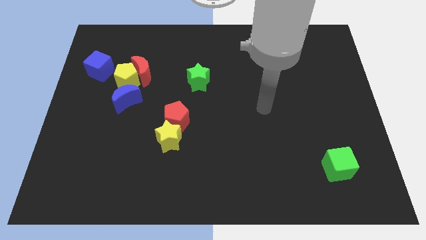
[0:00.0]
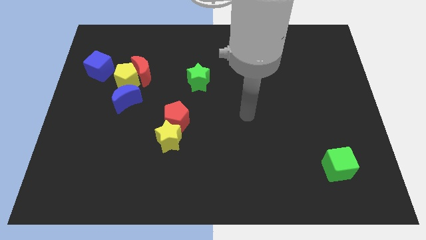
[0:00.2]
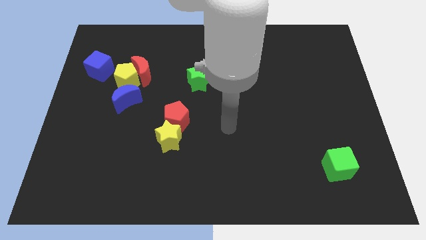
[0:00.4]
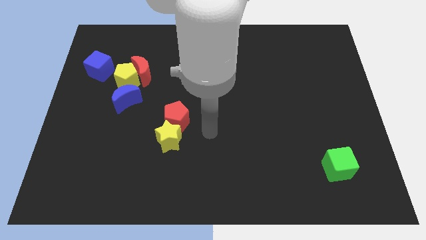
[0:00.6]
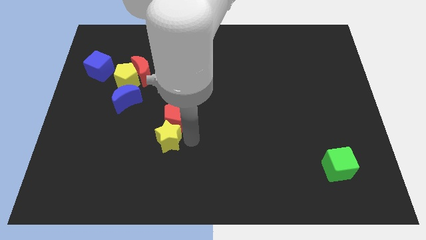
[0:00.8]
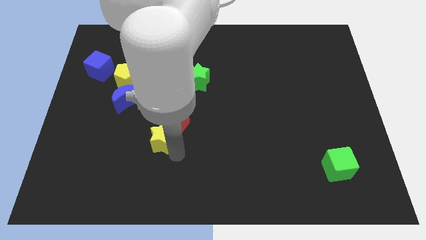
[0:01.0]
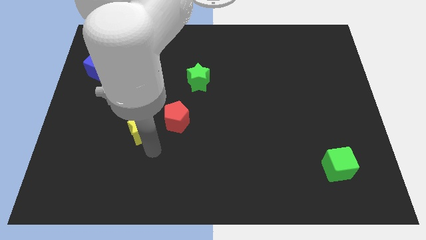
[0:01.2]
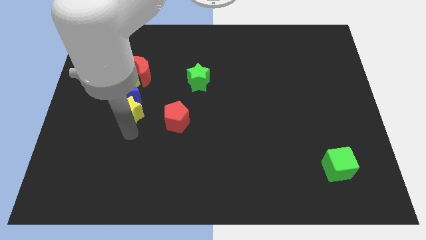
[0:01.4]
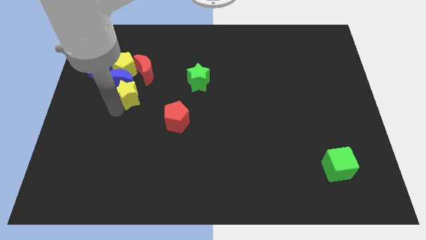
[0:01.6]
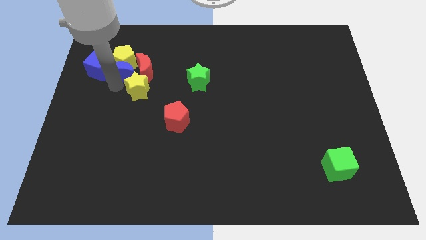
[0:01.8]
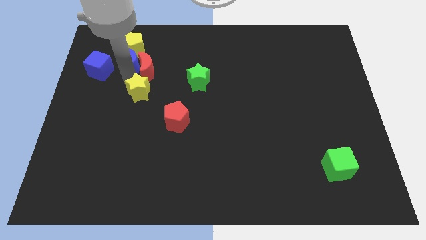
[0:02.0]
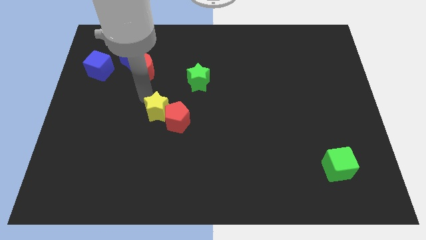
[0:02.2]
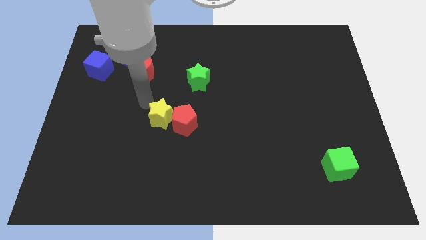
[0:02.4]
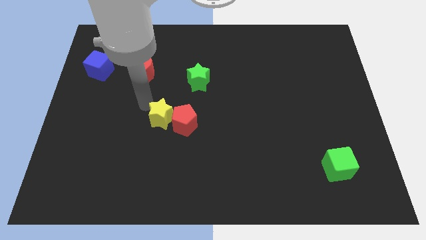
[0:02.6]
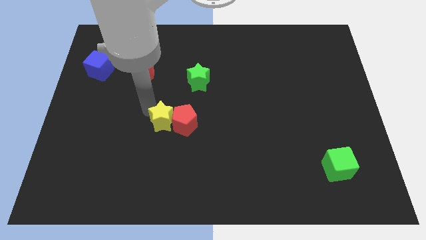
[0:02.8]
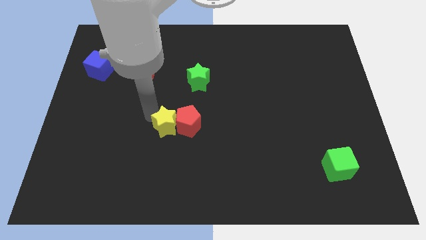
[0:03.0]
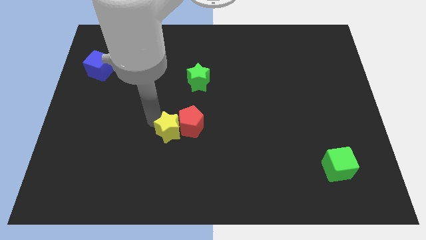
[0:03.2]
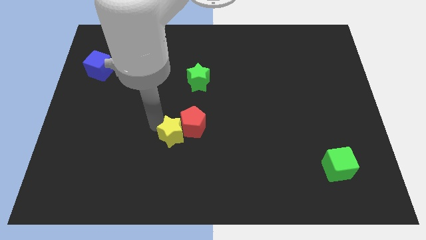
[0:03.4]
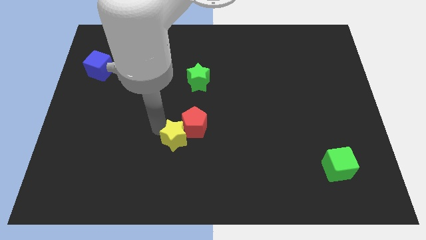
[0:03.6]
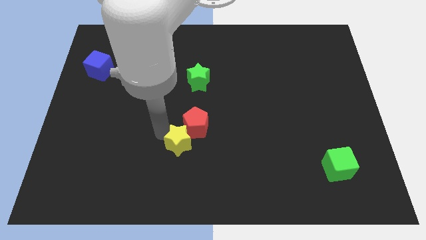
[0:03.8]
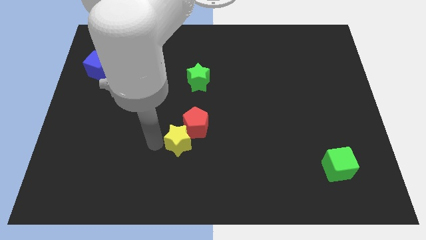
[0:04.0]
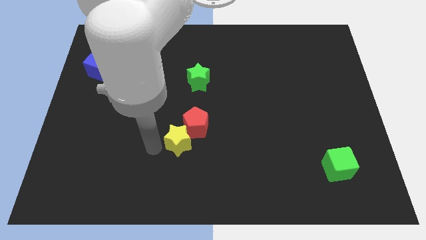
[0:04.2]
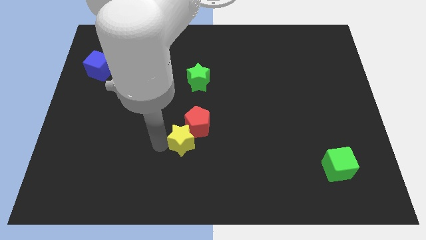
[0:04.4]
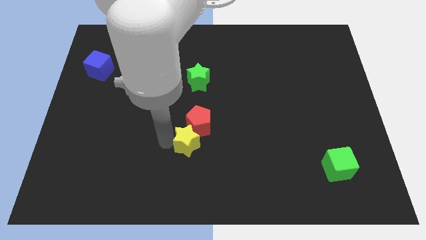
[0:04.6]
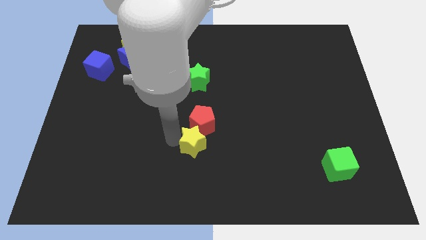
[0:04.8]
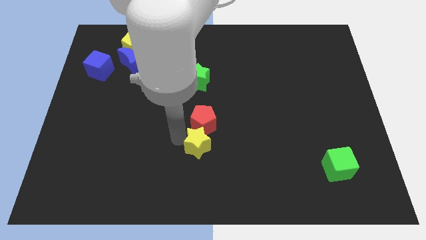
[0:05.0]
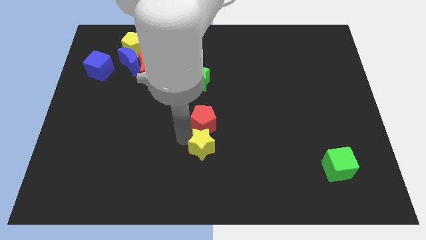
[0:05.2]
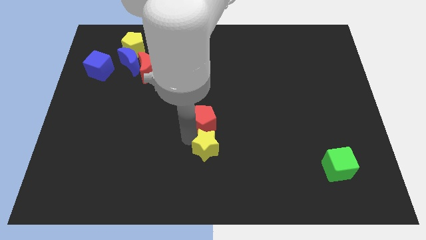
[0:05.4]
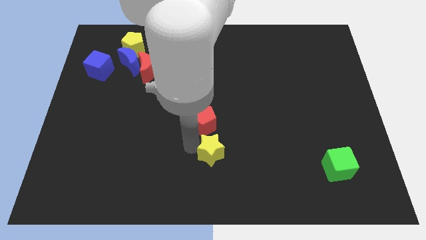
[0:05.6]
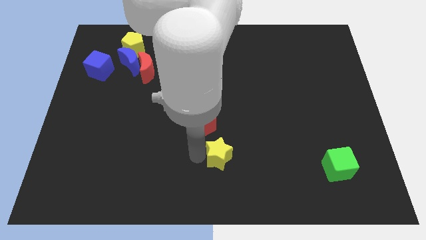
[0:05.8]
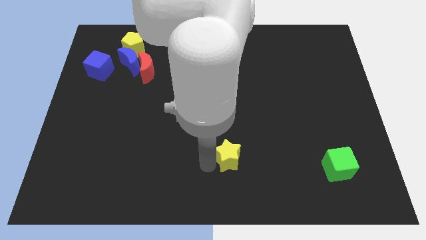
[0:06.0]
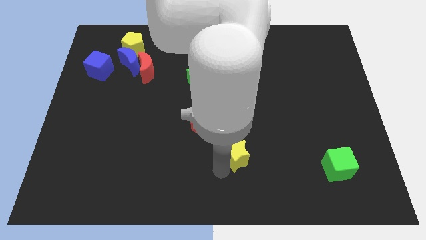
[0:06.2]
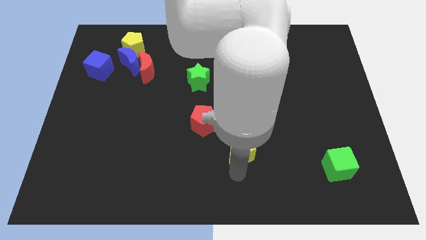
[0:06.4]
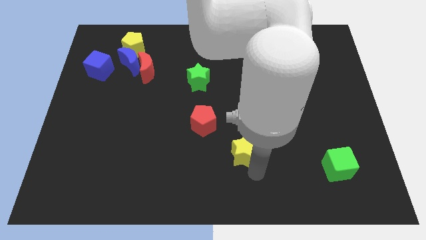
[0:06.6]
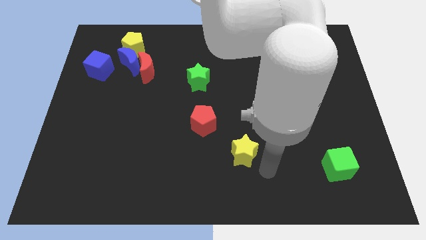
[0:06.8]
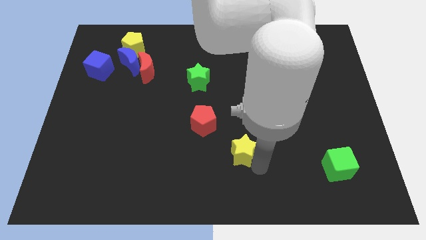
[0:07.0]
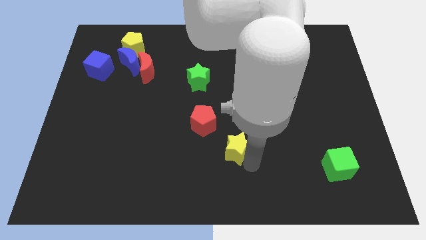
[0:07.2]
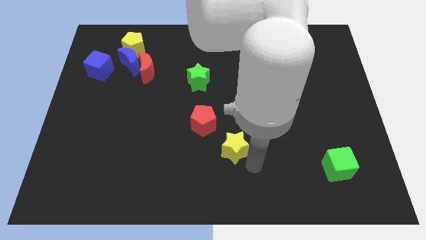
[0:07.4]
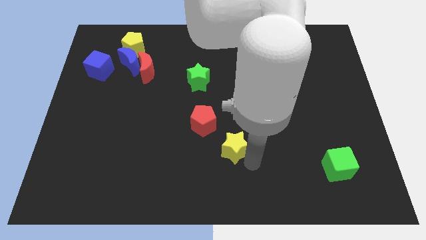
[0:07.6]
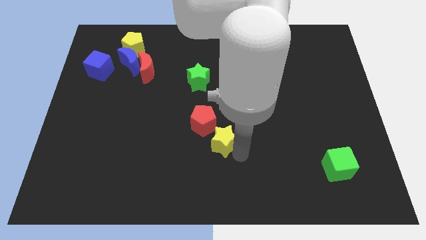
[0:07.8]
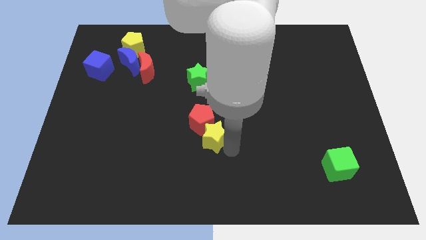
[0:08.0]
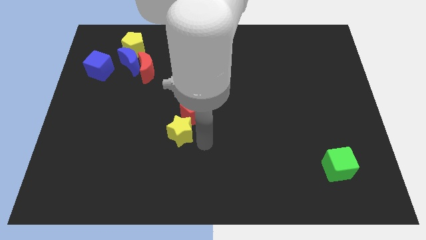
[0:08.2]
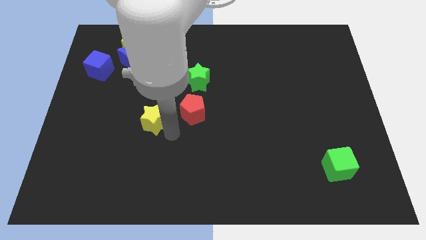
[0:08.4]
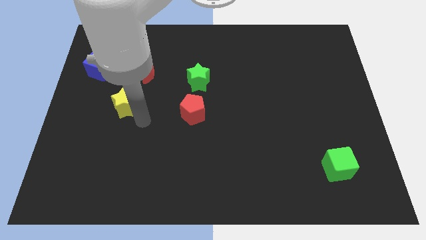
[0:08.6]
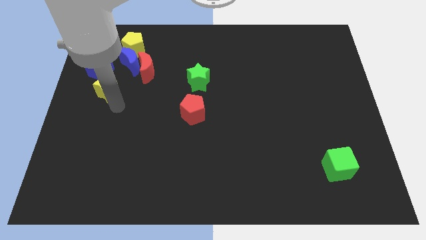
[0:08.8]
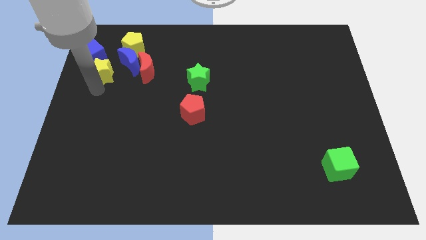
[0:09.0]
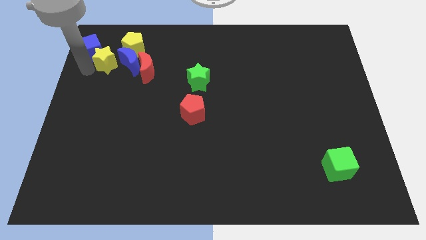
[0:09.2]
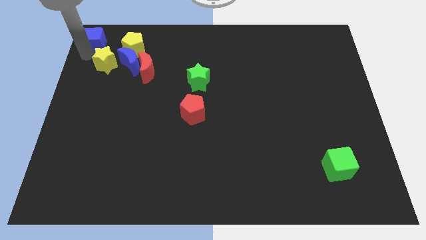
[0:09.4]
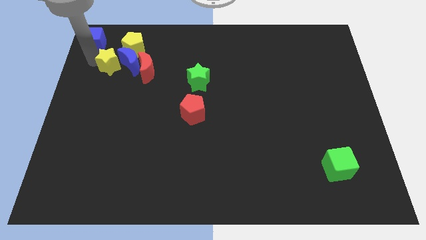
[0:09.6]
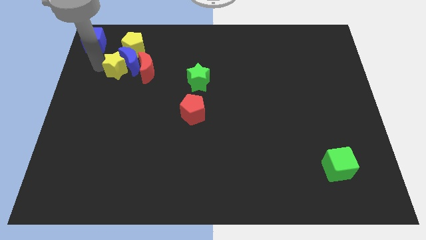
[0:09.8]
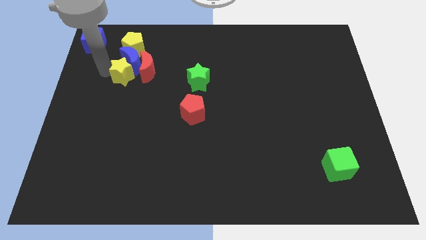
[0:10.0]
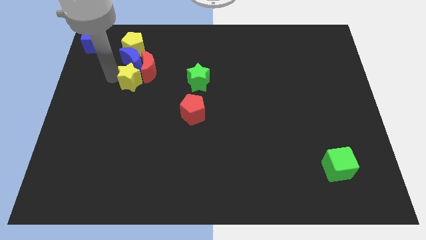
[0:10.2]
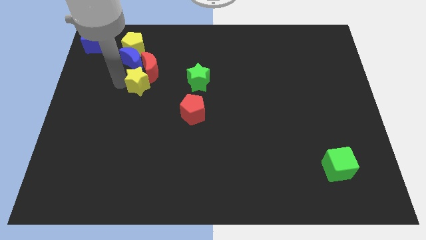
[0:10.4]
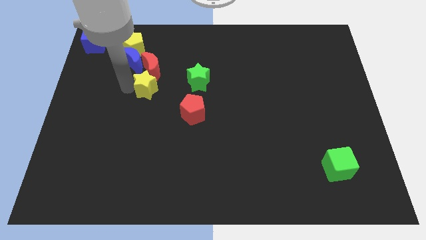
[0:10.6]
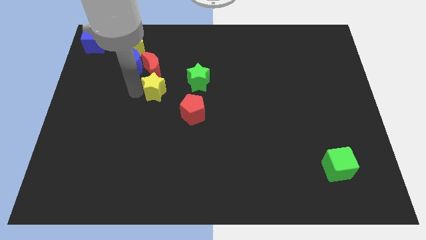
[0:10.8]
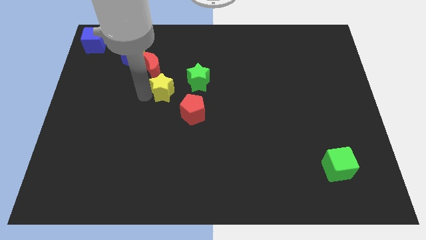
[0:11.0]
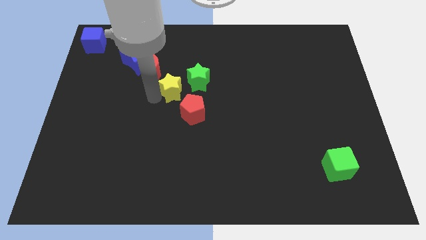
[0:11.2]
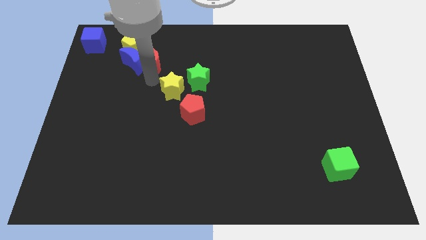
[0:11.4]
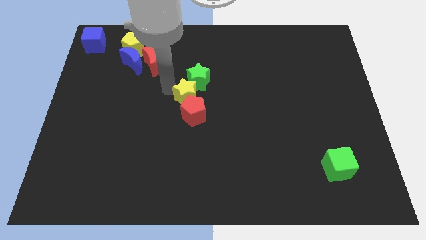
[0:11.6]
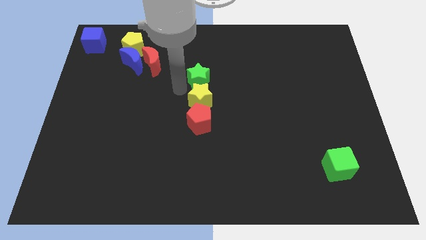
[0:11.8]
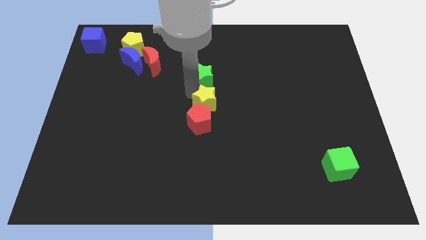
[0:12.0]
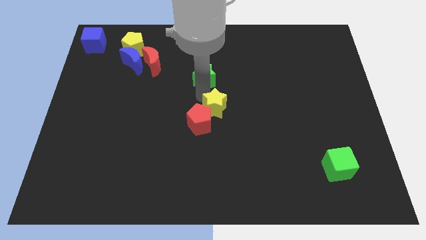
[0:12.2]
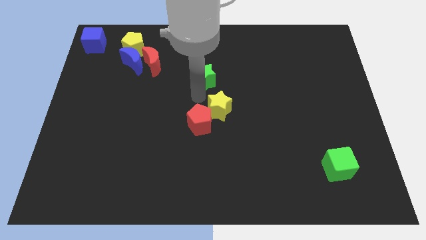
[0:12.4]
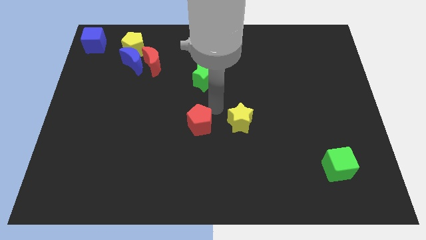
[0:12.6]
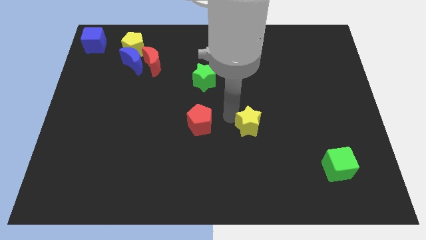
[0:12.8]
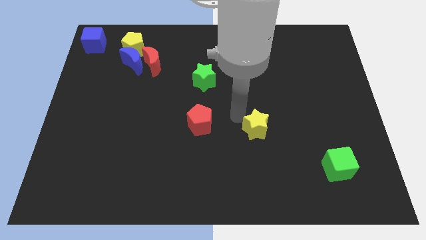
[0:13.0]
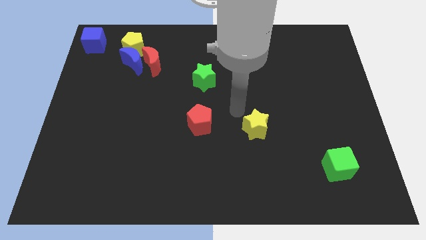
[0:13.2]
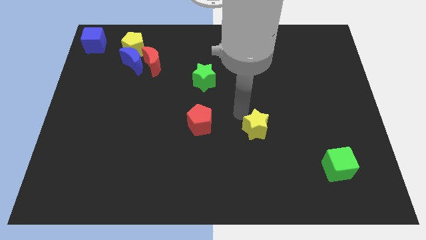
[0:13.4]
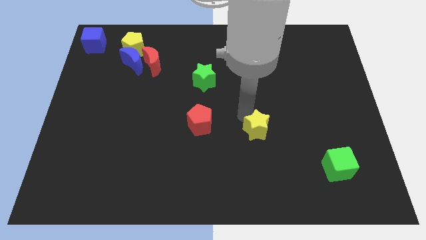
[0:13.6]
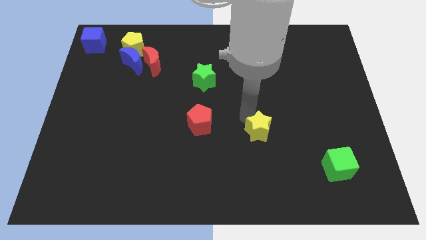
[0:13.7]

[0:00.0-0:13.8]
push the yellow star to the right

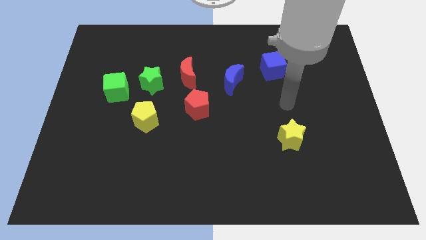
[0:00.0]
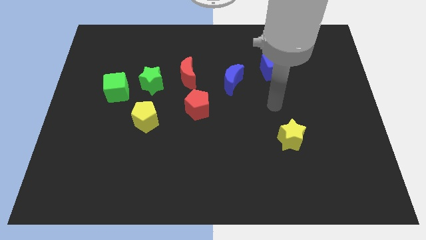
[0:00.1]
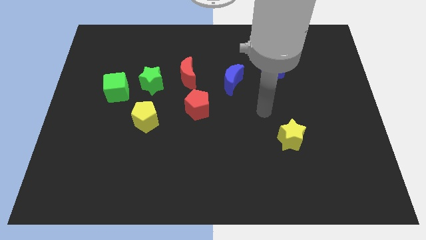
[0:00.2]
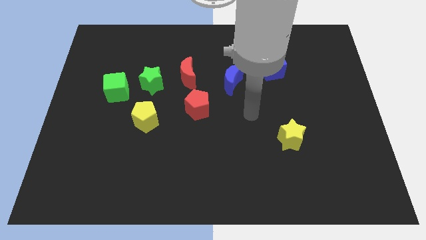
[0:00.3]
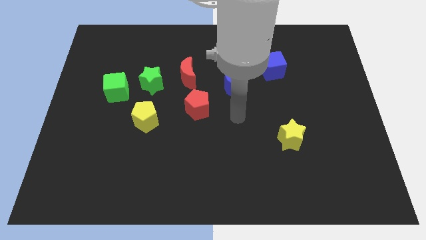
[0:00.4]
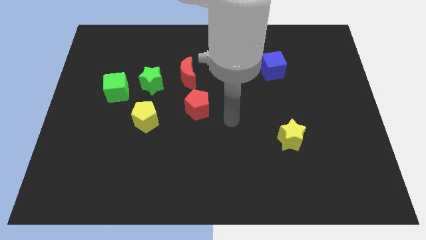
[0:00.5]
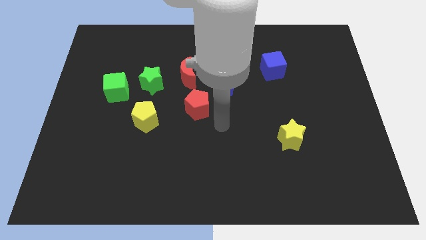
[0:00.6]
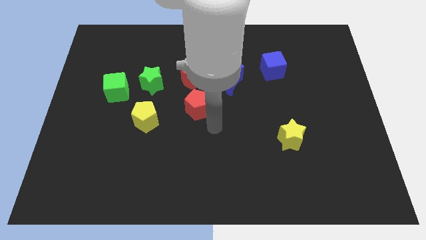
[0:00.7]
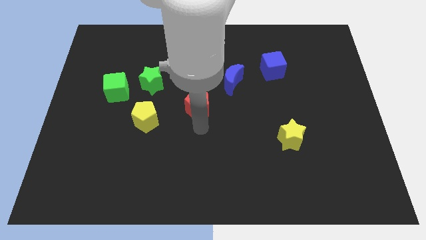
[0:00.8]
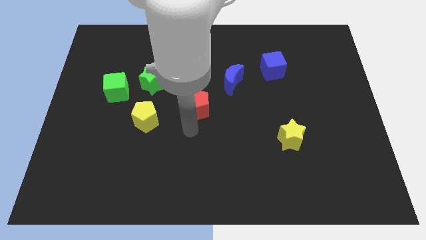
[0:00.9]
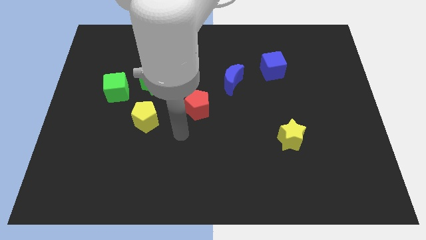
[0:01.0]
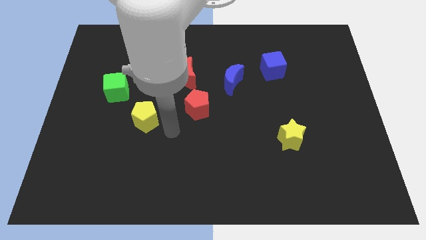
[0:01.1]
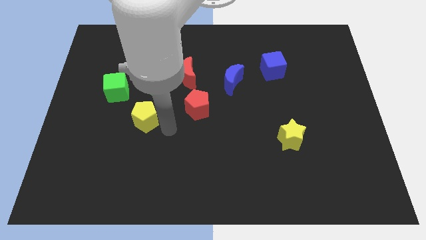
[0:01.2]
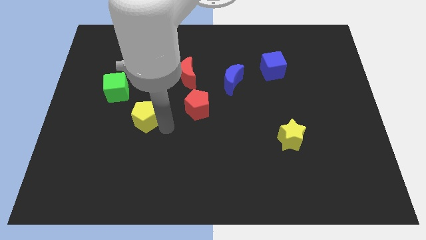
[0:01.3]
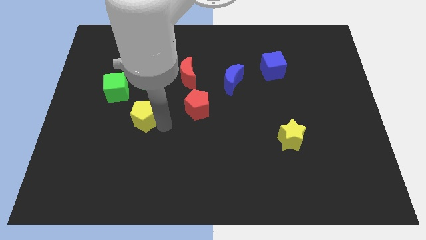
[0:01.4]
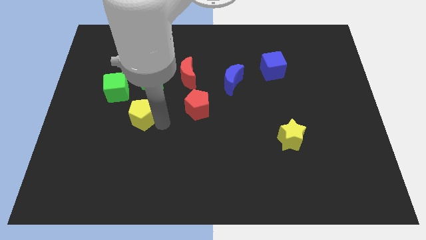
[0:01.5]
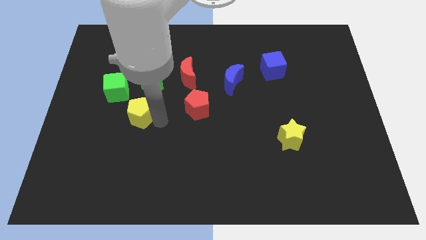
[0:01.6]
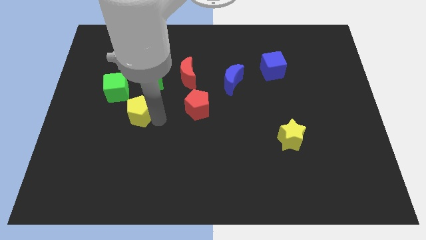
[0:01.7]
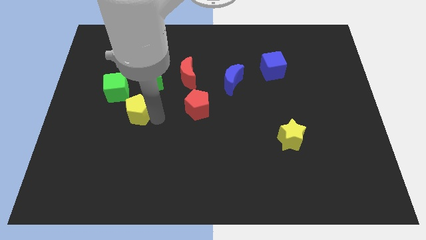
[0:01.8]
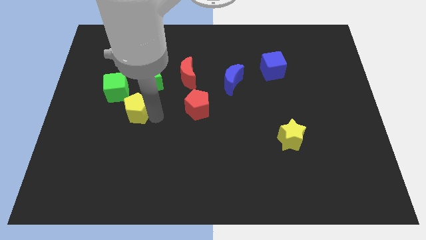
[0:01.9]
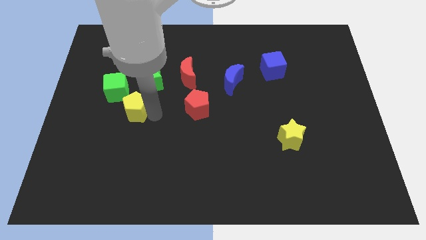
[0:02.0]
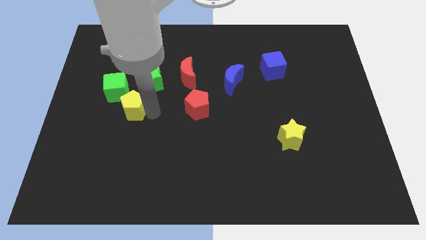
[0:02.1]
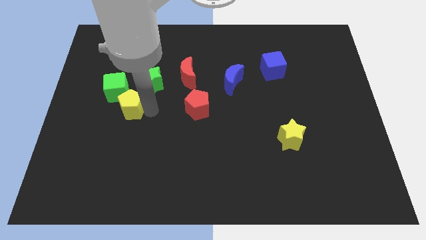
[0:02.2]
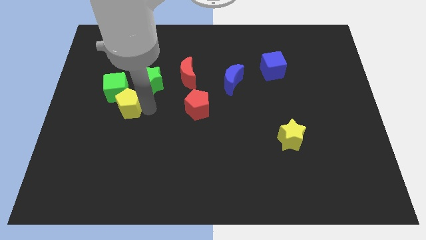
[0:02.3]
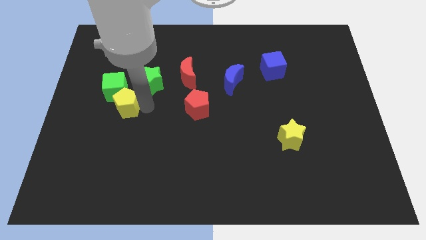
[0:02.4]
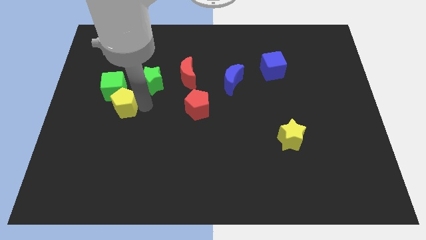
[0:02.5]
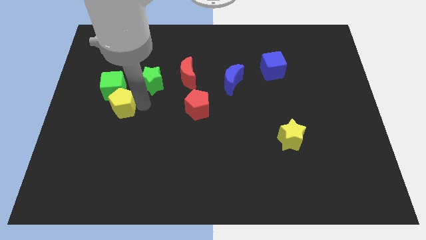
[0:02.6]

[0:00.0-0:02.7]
move the yellow pentagon up and then left somewhat
